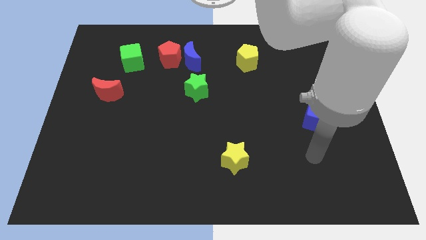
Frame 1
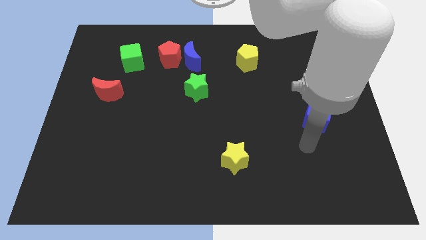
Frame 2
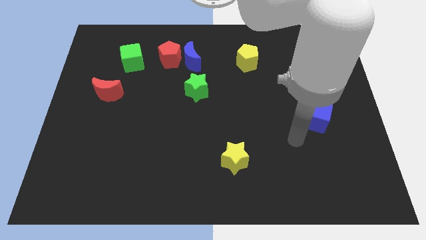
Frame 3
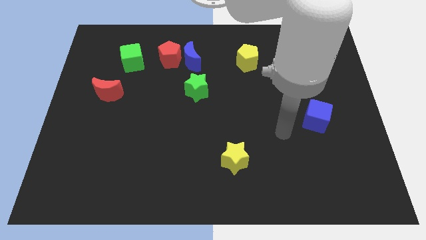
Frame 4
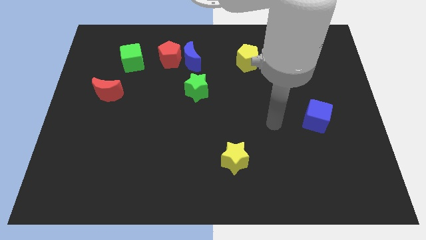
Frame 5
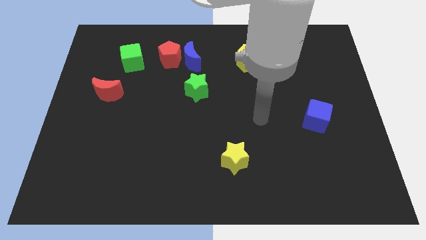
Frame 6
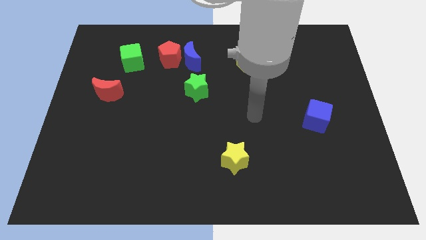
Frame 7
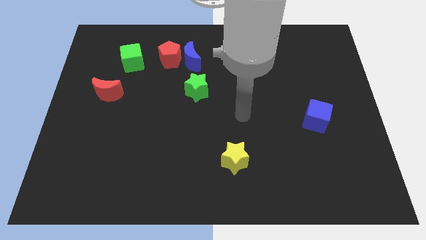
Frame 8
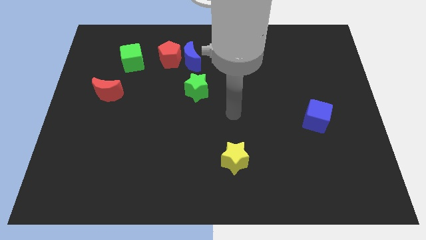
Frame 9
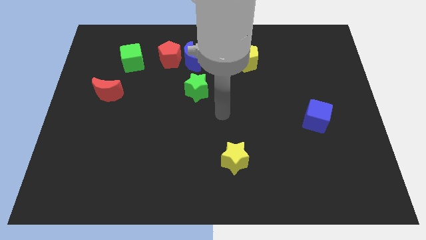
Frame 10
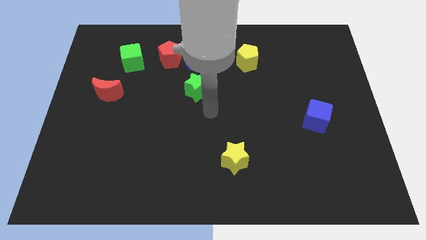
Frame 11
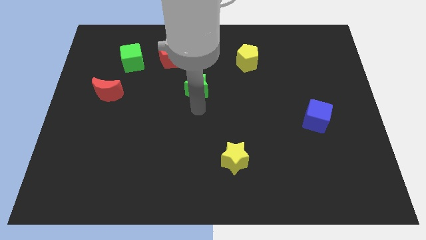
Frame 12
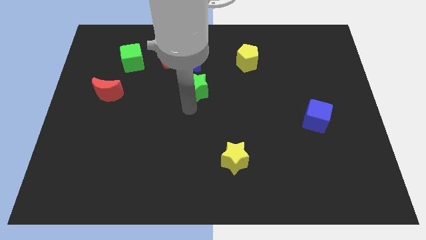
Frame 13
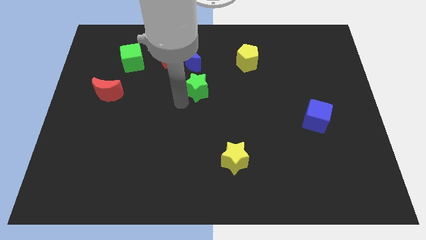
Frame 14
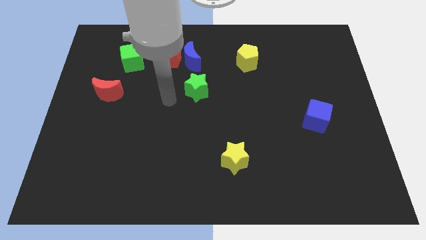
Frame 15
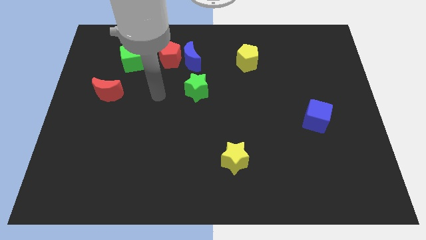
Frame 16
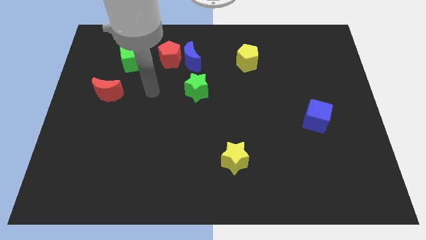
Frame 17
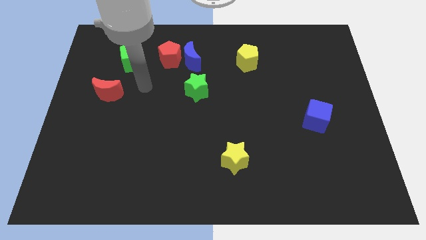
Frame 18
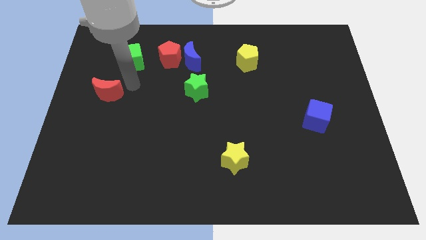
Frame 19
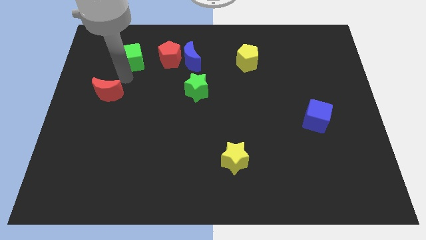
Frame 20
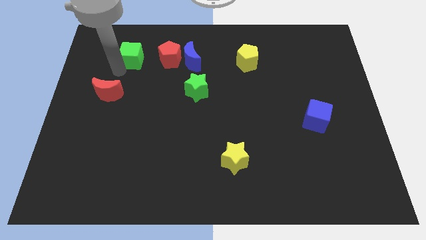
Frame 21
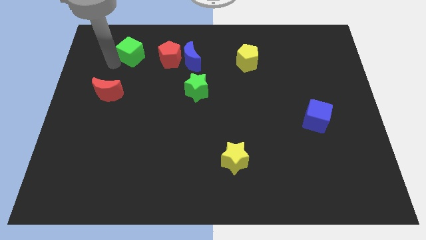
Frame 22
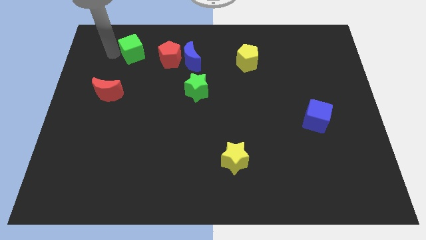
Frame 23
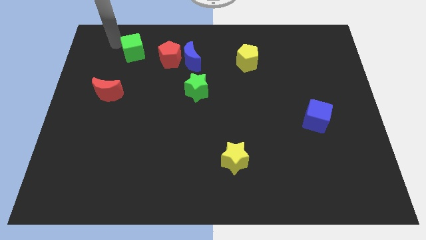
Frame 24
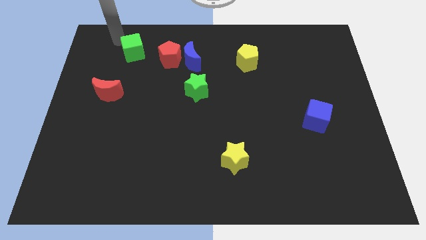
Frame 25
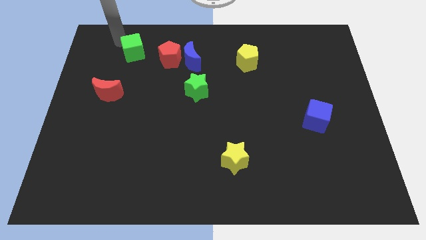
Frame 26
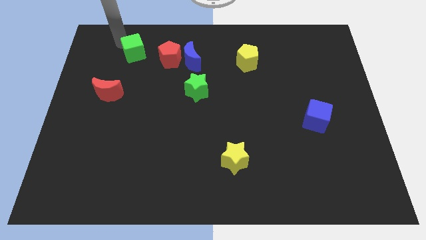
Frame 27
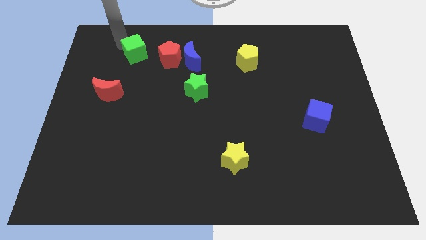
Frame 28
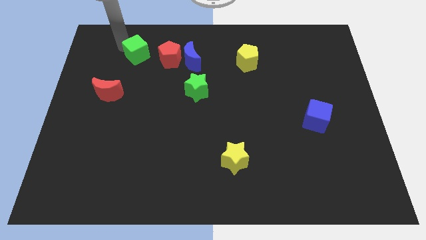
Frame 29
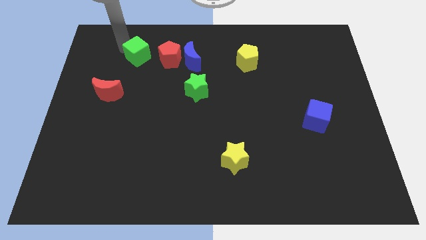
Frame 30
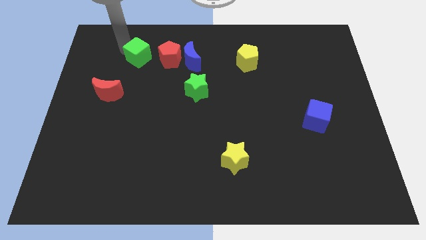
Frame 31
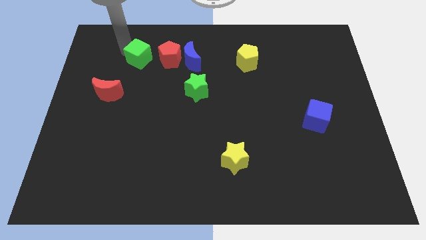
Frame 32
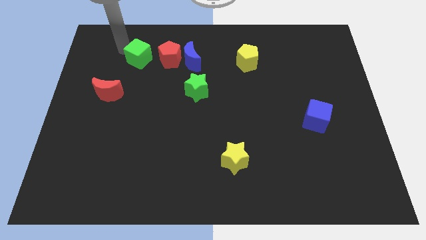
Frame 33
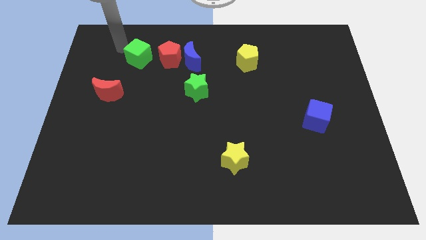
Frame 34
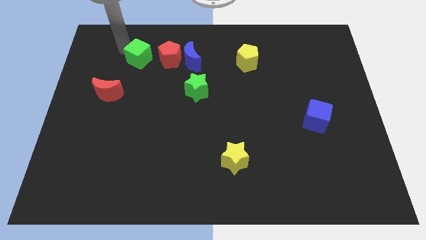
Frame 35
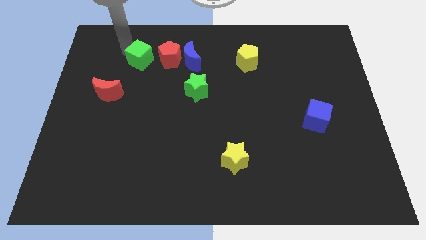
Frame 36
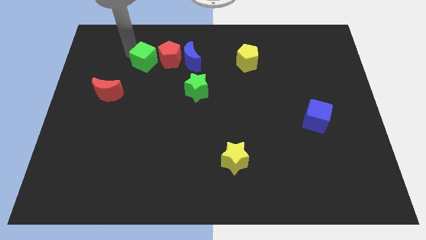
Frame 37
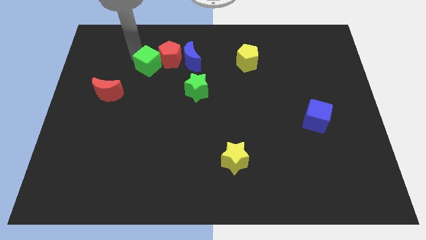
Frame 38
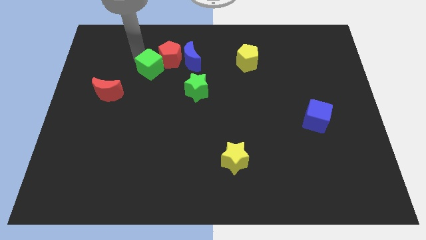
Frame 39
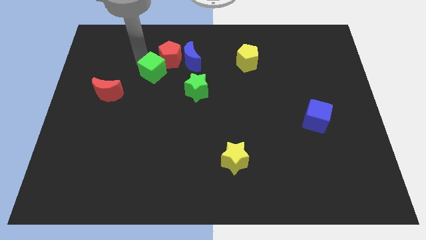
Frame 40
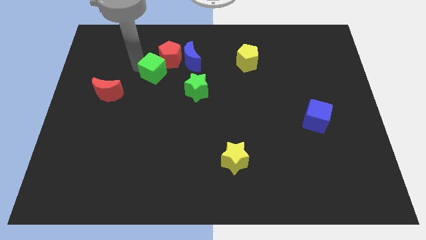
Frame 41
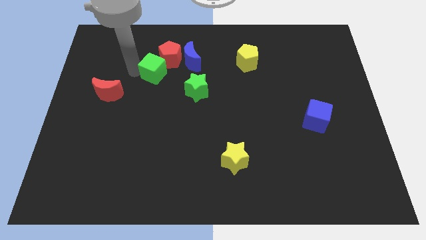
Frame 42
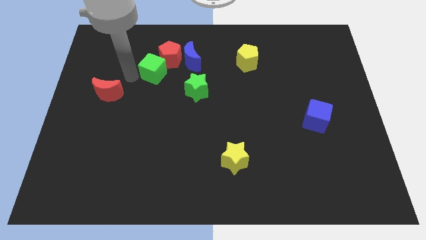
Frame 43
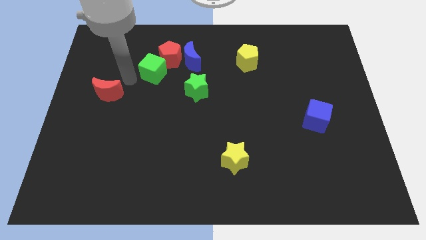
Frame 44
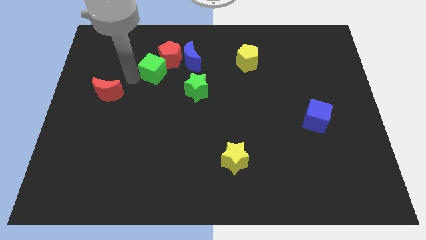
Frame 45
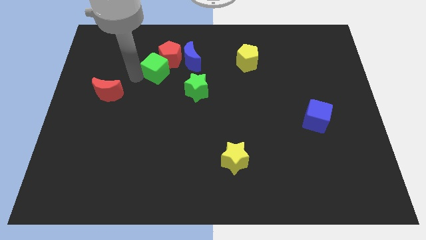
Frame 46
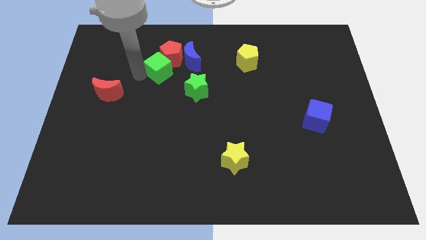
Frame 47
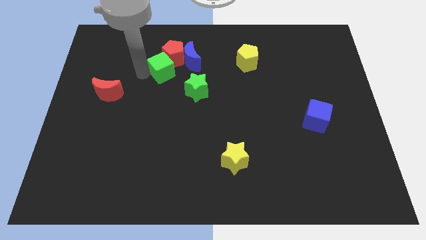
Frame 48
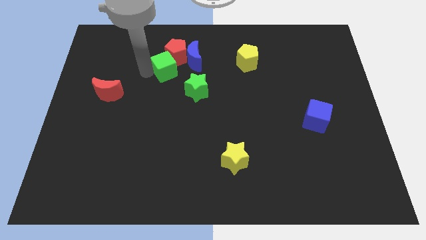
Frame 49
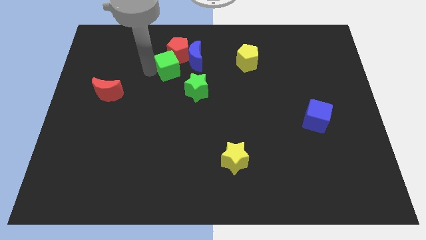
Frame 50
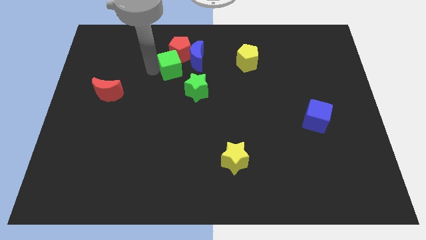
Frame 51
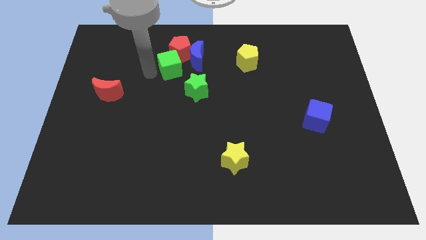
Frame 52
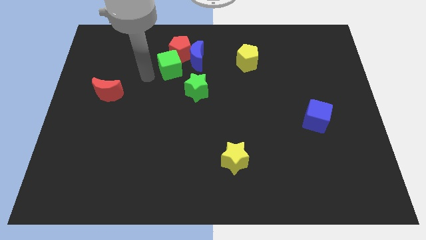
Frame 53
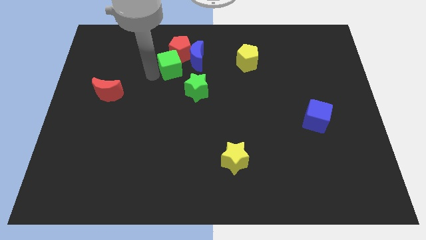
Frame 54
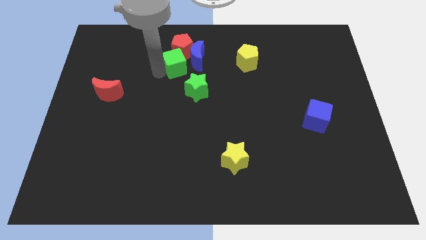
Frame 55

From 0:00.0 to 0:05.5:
slide the green cube close to the blue moon

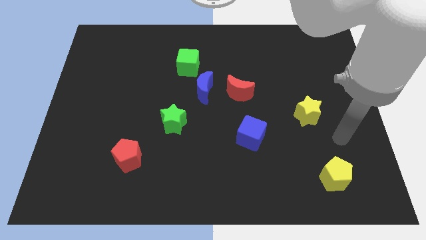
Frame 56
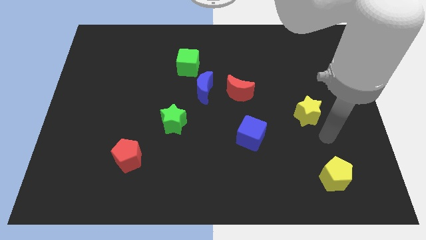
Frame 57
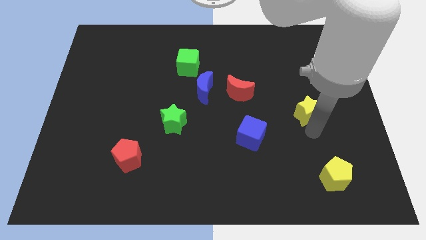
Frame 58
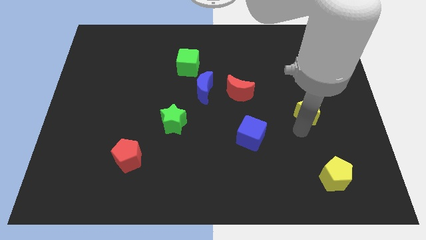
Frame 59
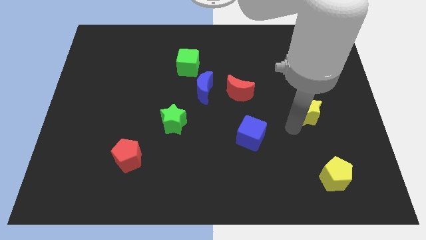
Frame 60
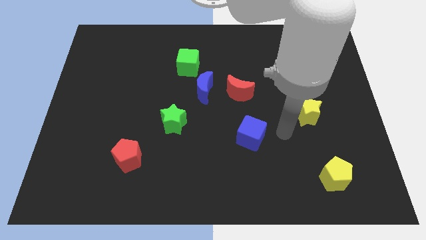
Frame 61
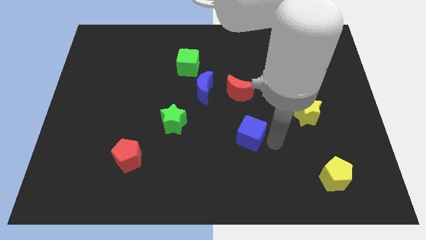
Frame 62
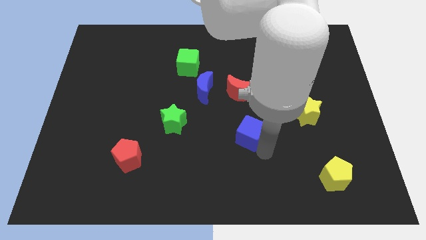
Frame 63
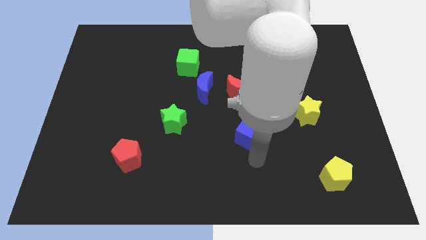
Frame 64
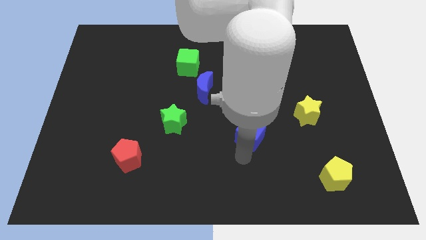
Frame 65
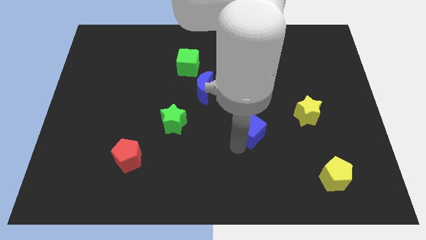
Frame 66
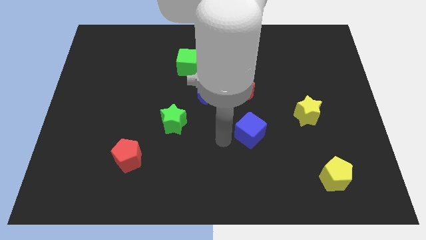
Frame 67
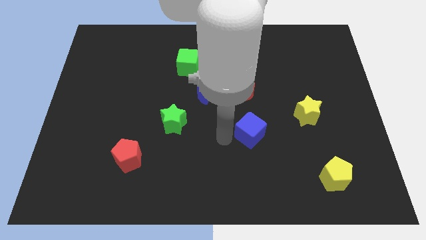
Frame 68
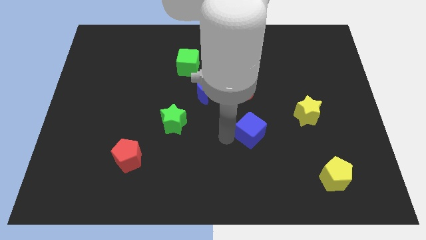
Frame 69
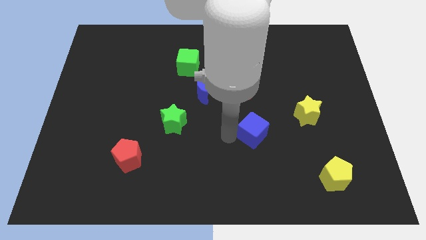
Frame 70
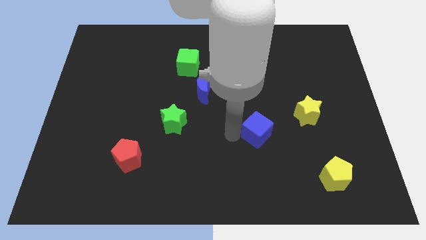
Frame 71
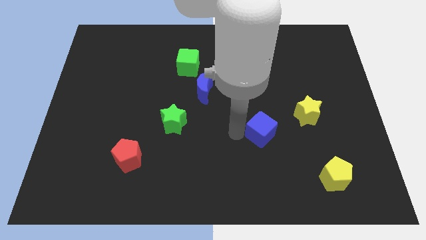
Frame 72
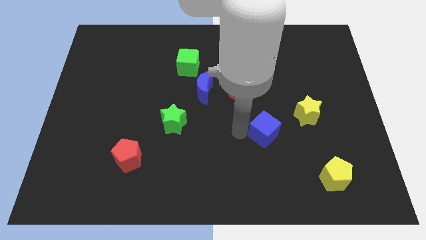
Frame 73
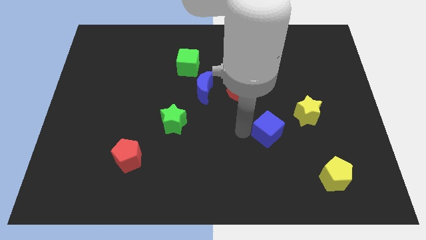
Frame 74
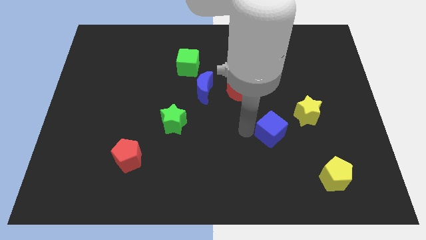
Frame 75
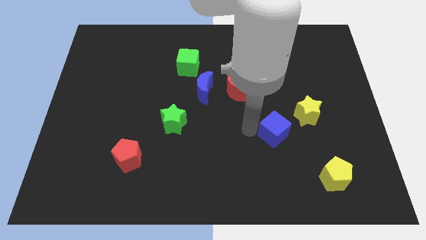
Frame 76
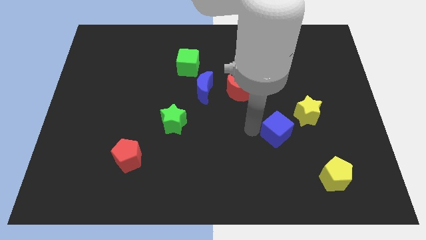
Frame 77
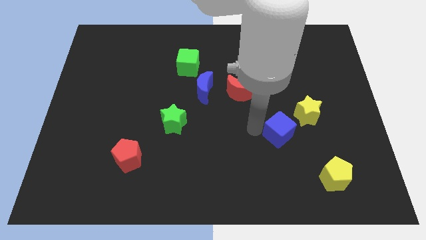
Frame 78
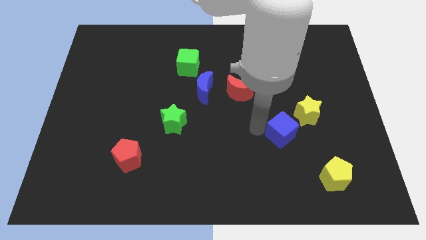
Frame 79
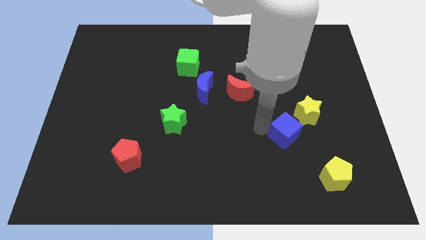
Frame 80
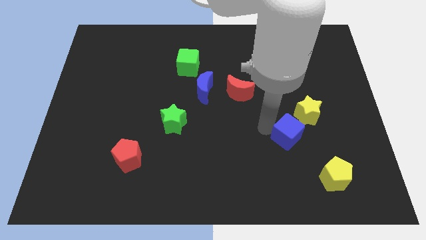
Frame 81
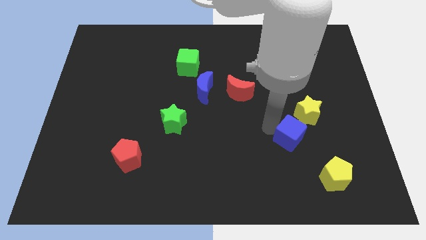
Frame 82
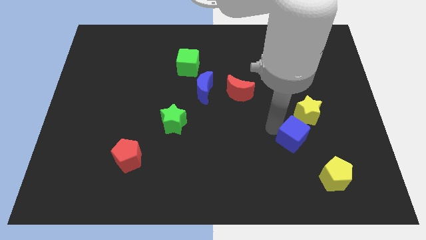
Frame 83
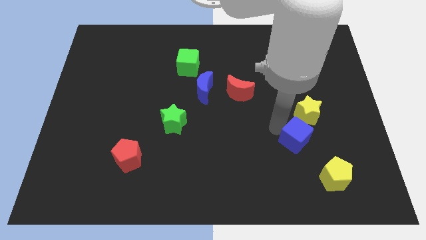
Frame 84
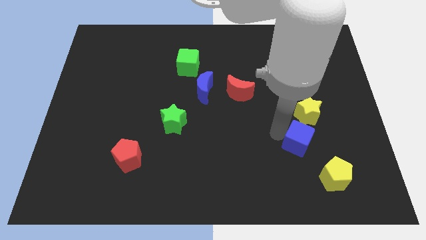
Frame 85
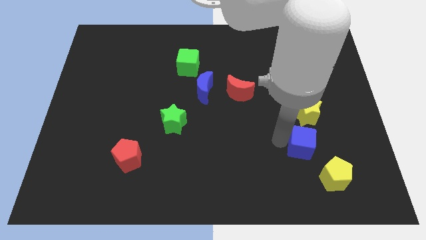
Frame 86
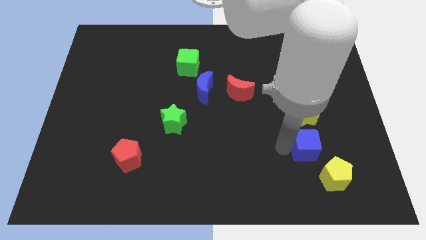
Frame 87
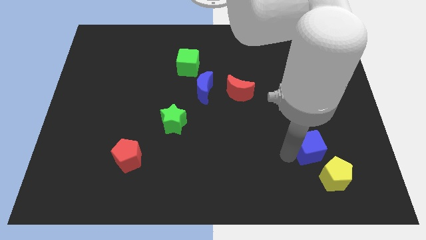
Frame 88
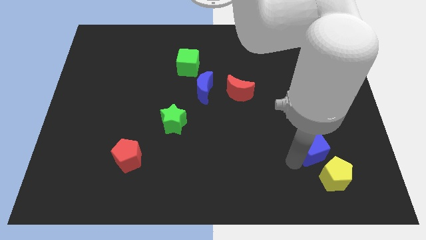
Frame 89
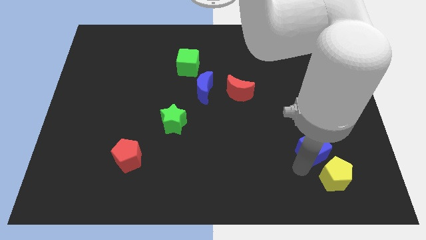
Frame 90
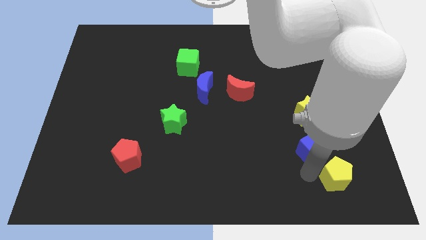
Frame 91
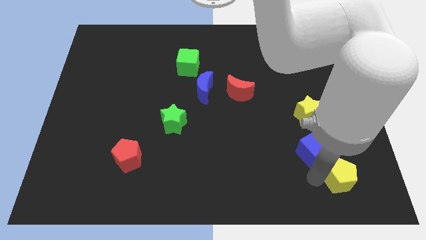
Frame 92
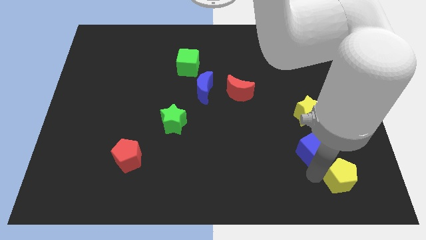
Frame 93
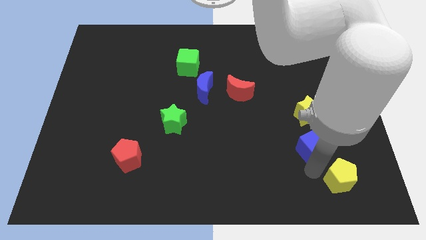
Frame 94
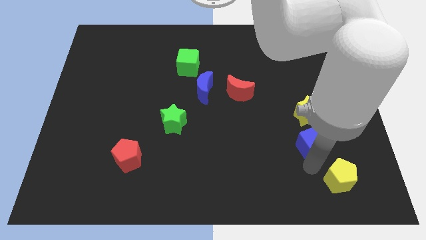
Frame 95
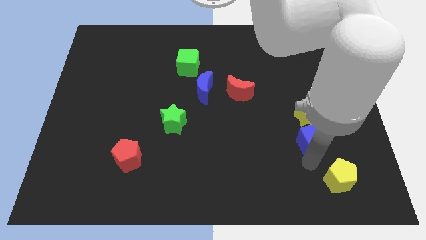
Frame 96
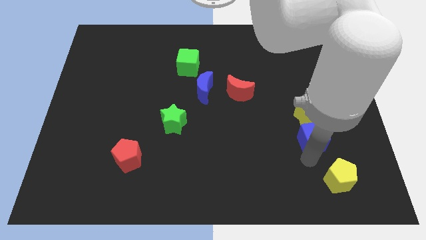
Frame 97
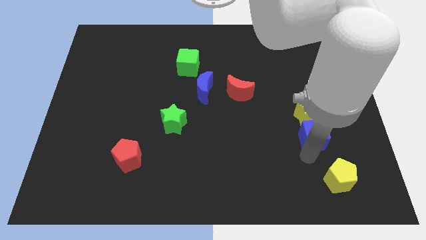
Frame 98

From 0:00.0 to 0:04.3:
slide the blue cube towards the yellow star
